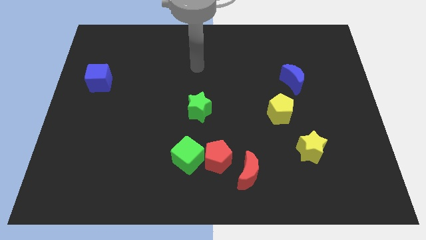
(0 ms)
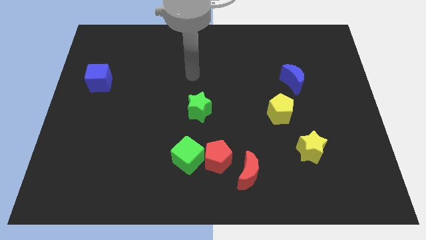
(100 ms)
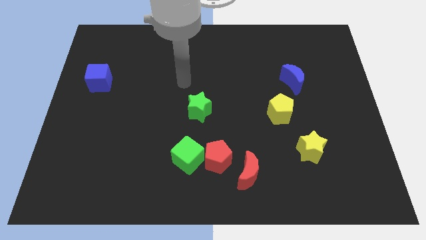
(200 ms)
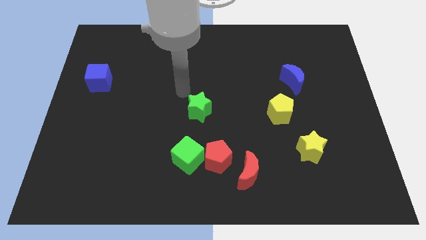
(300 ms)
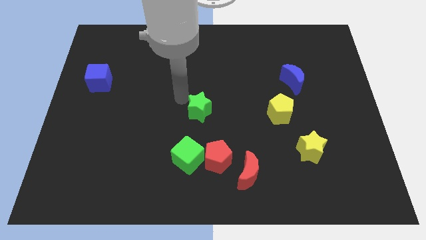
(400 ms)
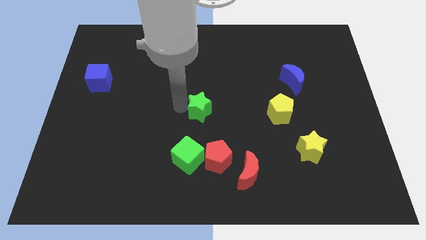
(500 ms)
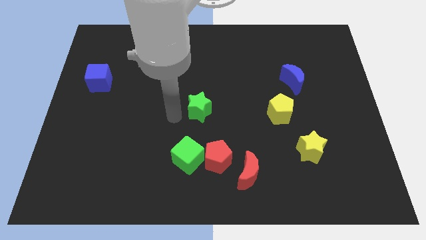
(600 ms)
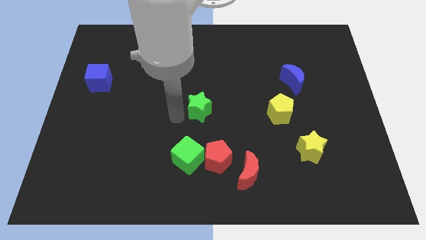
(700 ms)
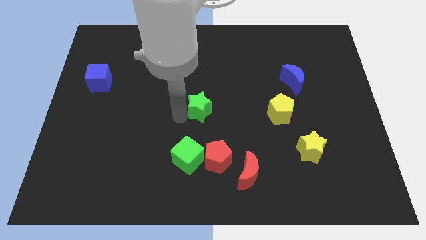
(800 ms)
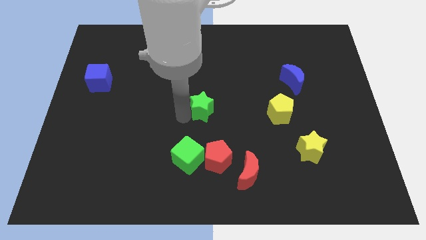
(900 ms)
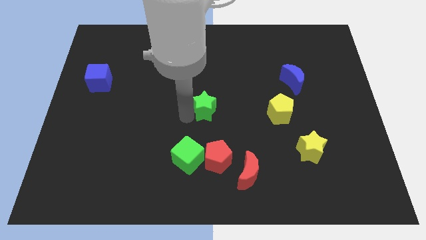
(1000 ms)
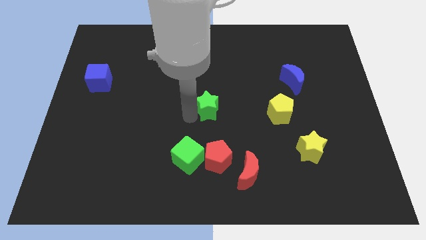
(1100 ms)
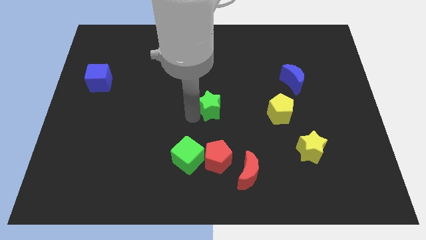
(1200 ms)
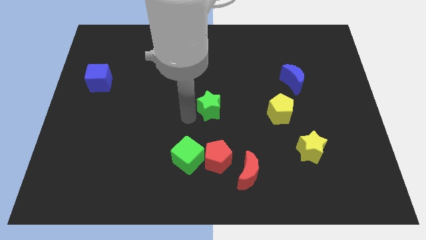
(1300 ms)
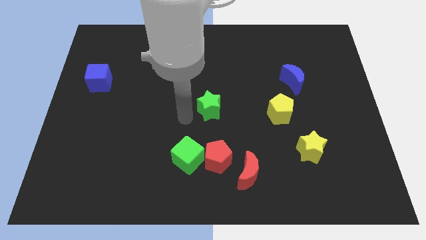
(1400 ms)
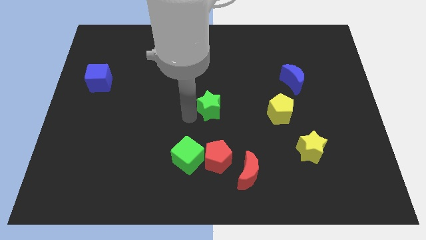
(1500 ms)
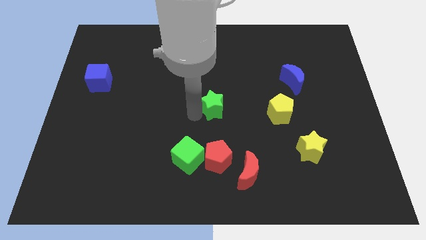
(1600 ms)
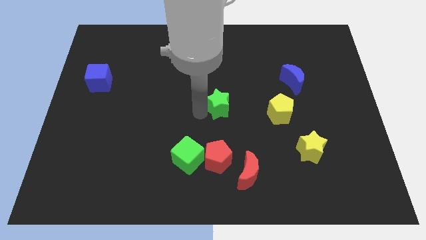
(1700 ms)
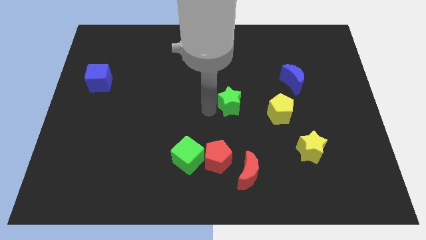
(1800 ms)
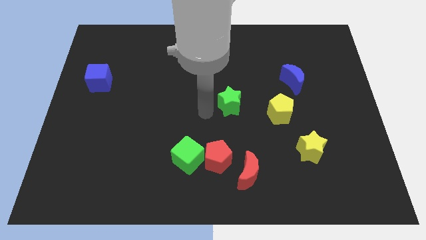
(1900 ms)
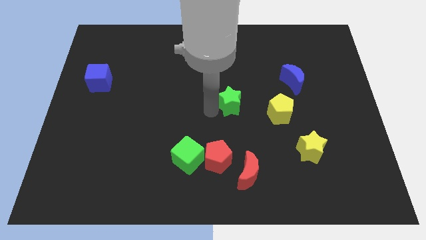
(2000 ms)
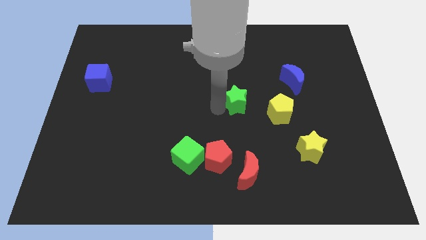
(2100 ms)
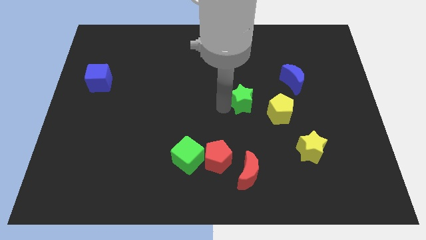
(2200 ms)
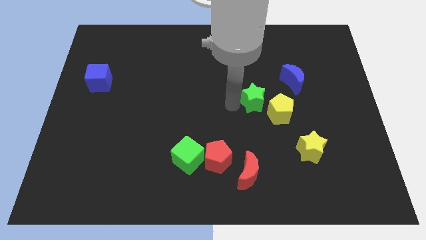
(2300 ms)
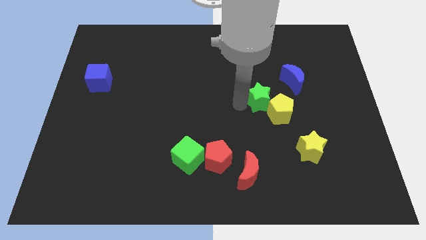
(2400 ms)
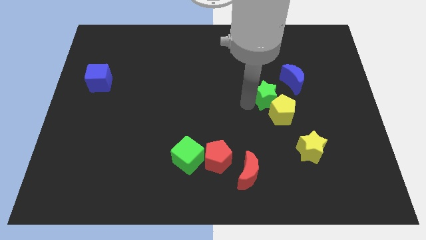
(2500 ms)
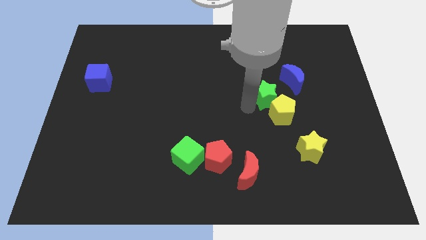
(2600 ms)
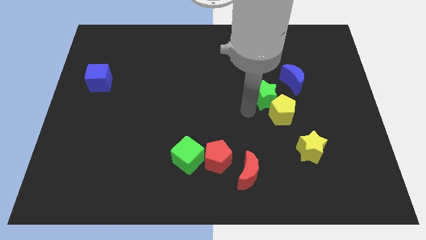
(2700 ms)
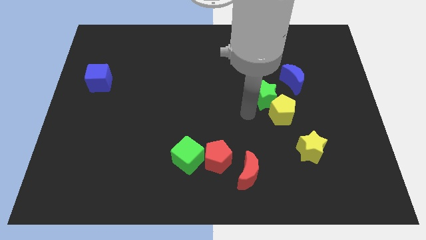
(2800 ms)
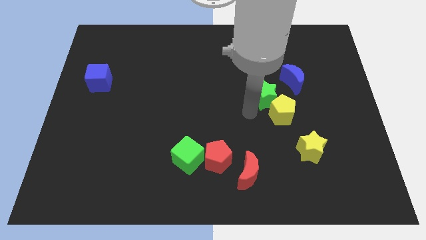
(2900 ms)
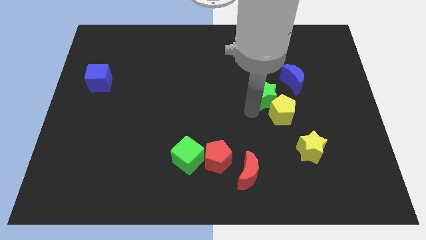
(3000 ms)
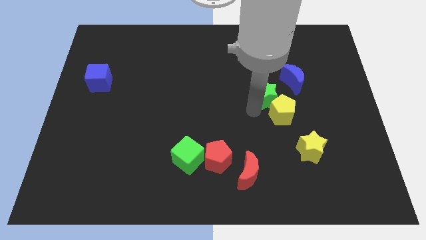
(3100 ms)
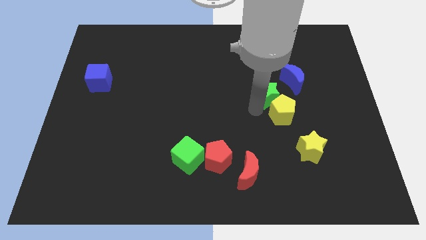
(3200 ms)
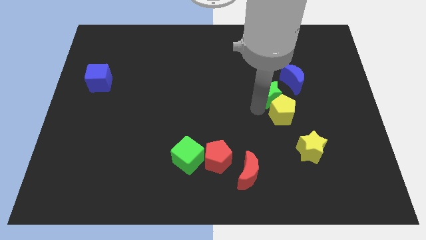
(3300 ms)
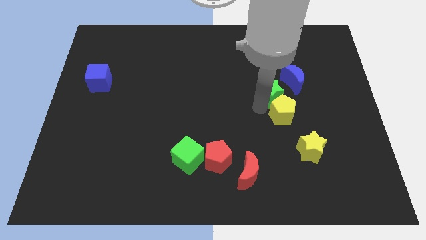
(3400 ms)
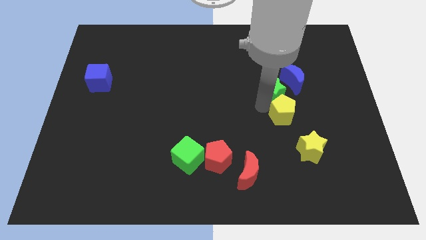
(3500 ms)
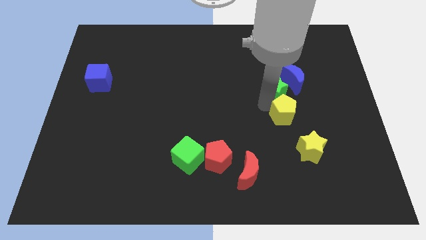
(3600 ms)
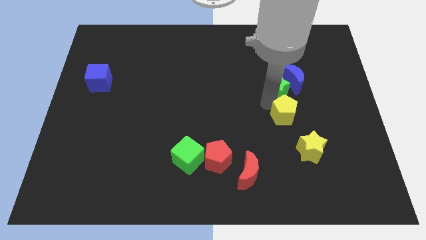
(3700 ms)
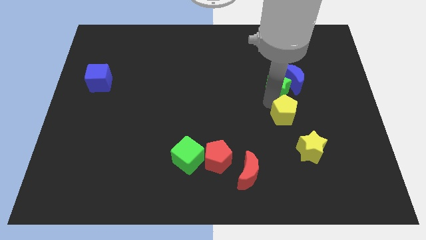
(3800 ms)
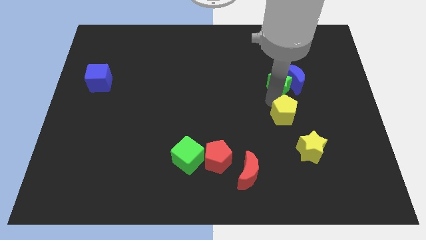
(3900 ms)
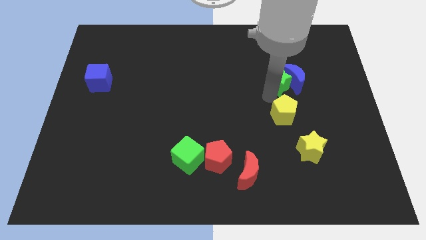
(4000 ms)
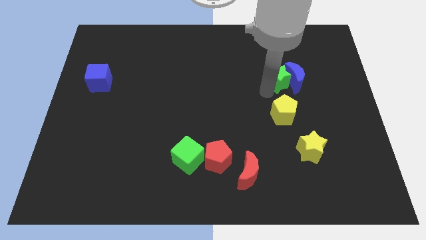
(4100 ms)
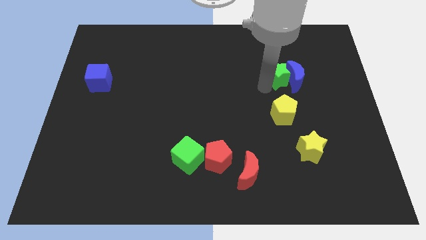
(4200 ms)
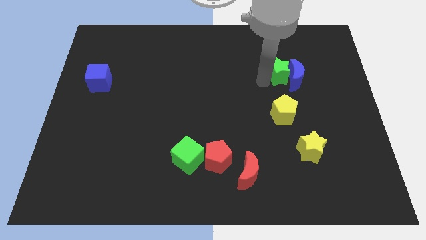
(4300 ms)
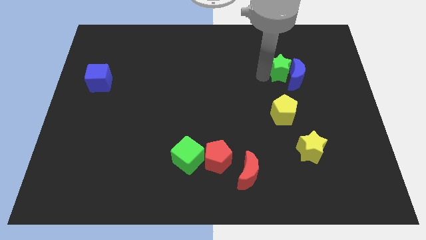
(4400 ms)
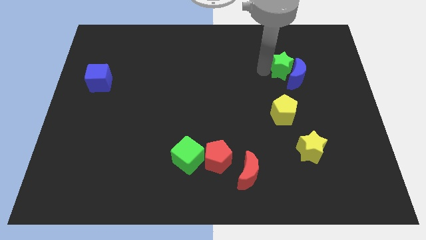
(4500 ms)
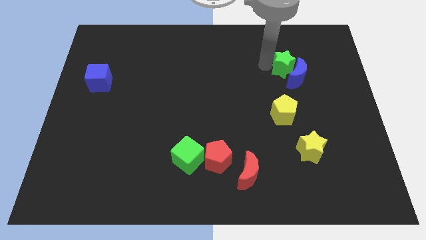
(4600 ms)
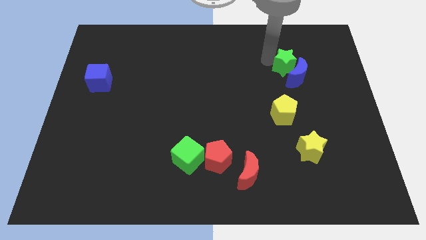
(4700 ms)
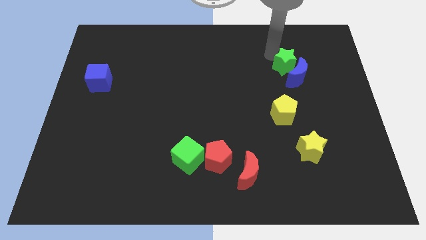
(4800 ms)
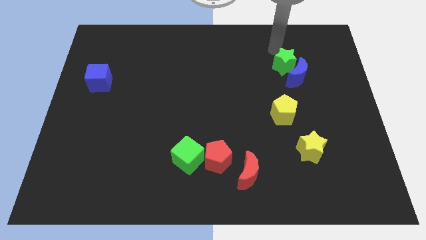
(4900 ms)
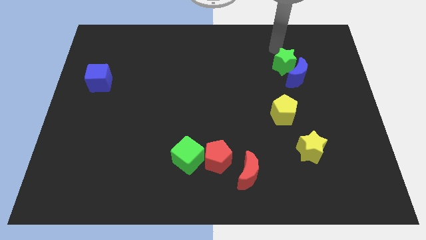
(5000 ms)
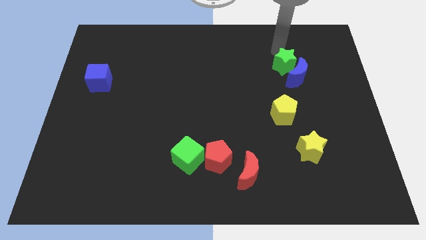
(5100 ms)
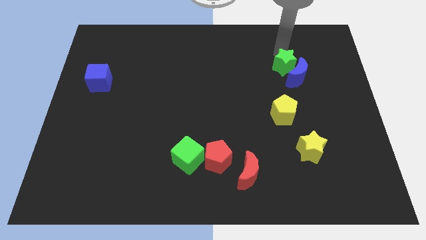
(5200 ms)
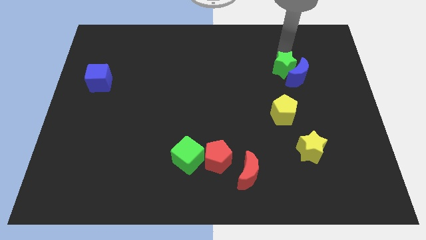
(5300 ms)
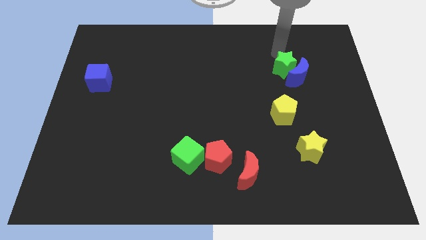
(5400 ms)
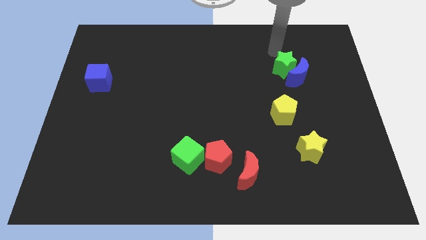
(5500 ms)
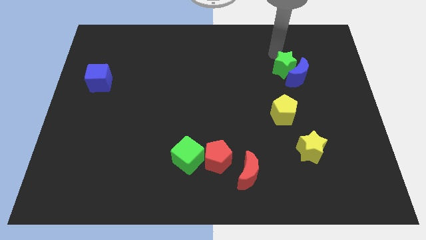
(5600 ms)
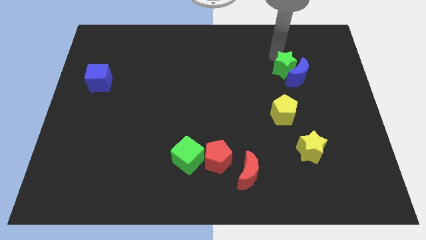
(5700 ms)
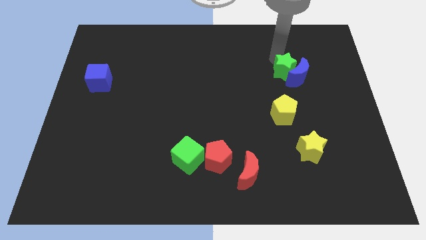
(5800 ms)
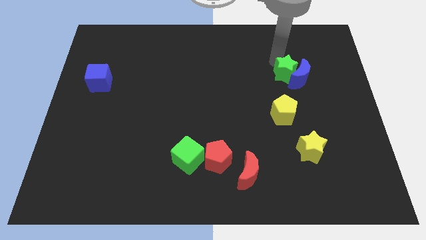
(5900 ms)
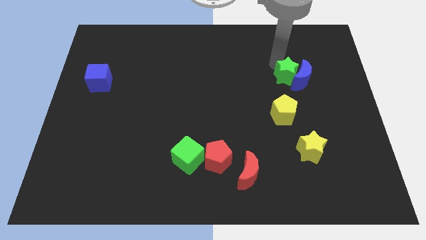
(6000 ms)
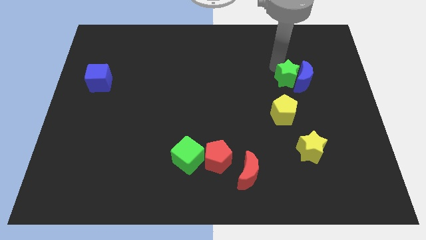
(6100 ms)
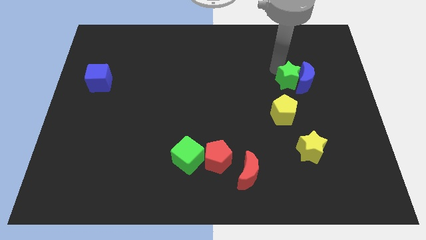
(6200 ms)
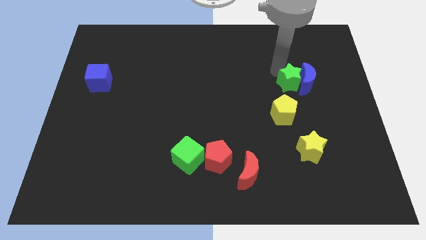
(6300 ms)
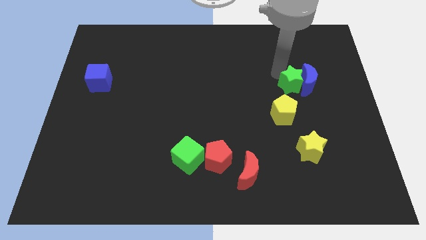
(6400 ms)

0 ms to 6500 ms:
move the green star to the top right side of the yellow pentagon

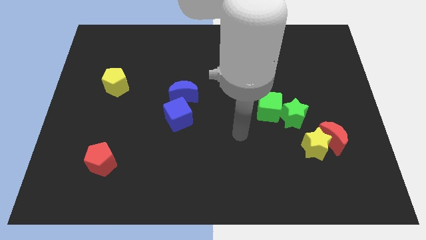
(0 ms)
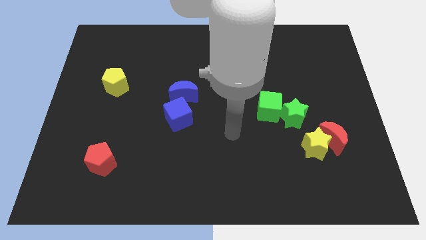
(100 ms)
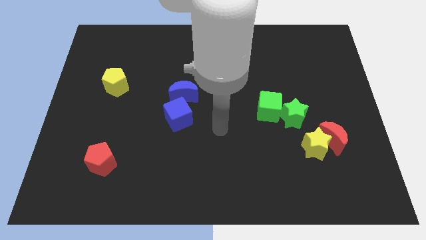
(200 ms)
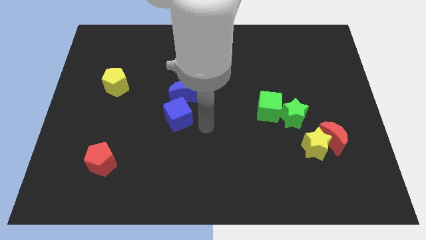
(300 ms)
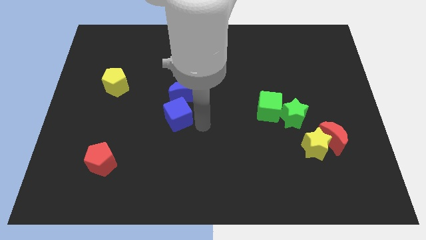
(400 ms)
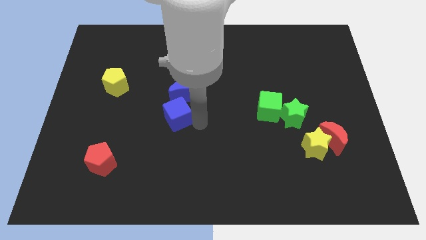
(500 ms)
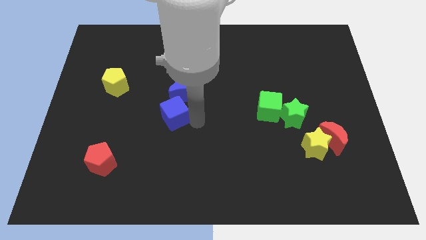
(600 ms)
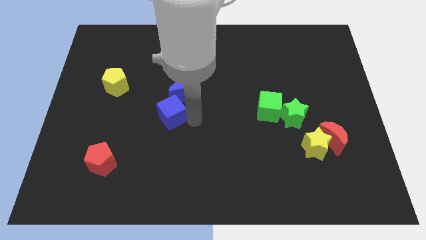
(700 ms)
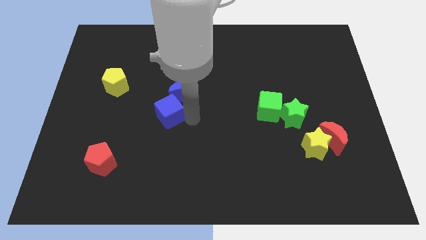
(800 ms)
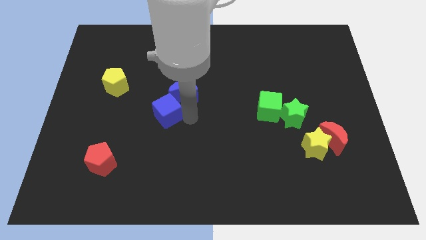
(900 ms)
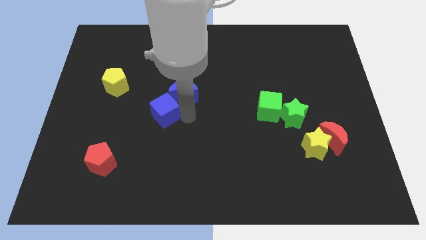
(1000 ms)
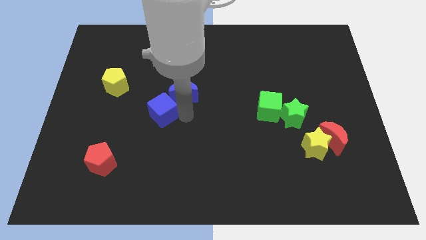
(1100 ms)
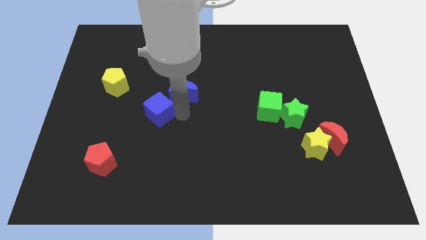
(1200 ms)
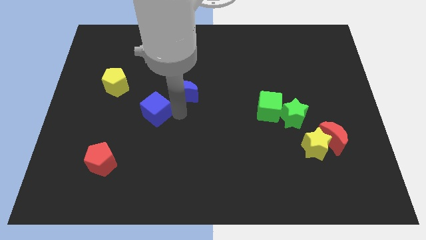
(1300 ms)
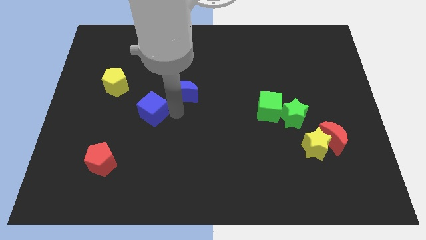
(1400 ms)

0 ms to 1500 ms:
push the blue cube to the bottom right side of the yellow pentagon
